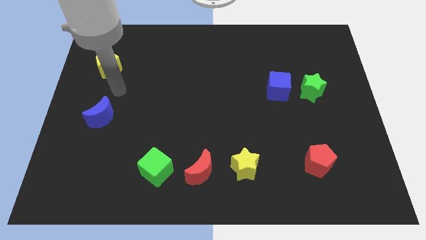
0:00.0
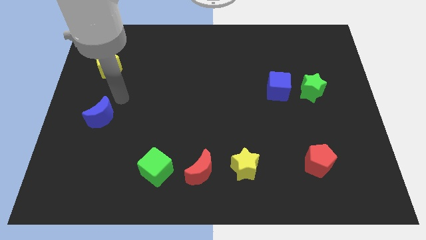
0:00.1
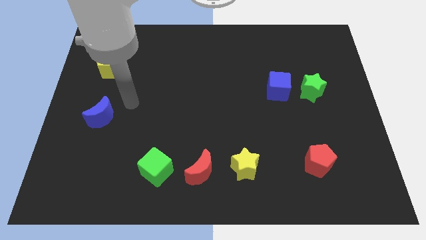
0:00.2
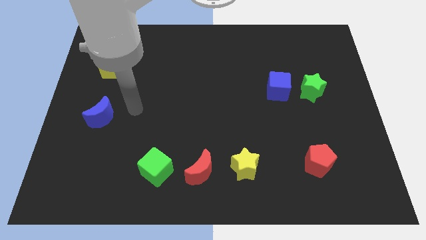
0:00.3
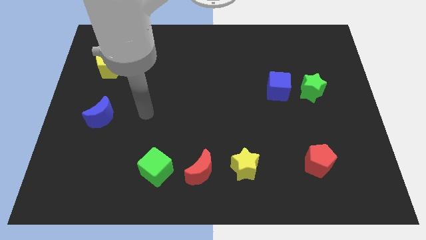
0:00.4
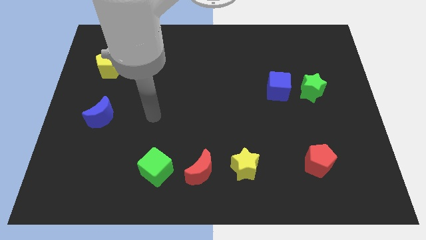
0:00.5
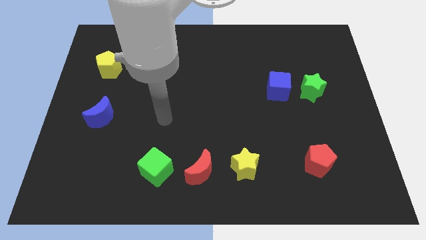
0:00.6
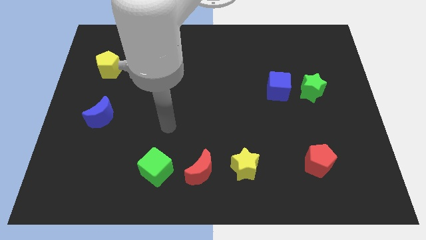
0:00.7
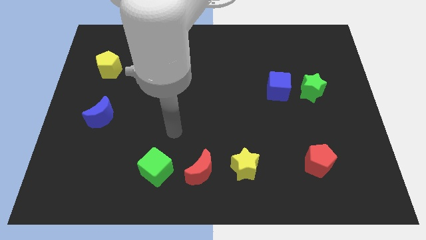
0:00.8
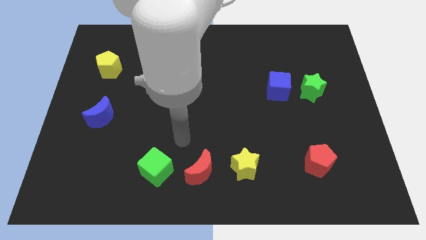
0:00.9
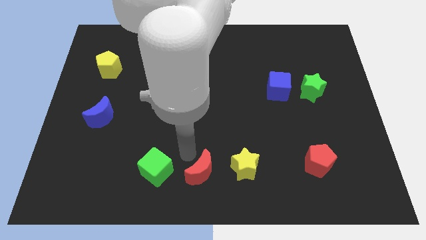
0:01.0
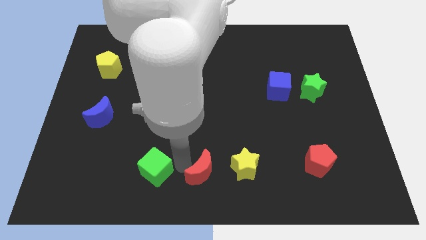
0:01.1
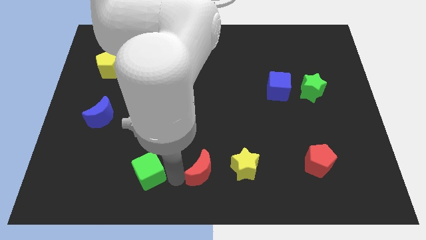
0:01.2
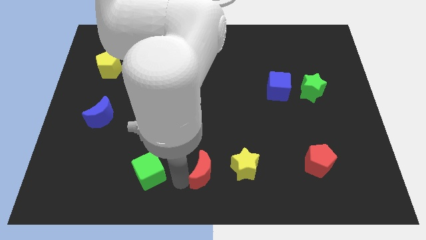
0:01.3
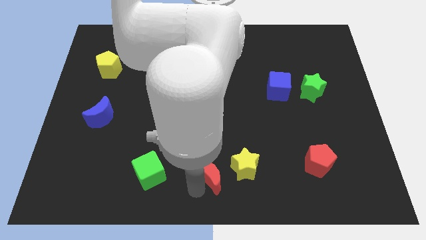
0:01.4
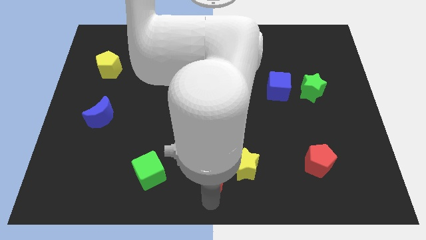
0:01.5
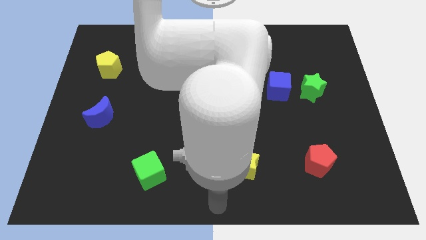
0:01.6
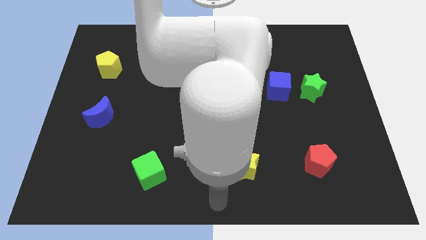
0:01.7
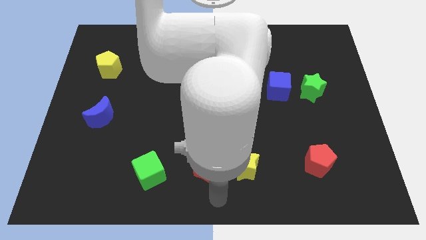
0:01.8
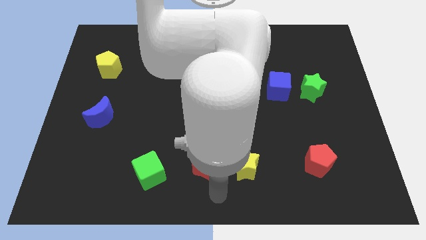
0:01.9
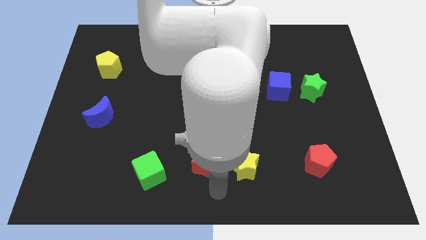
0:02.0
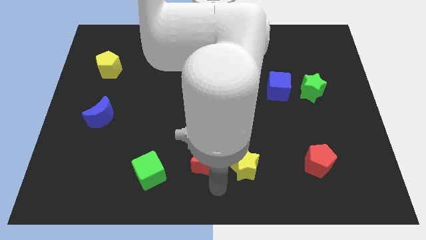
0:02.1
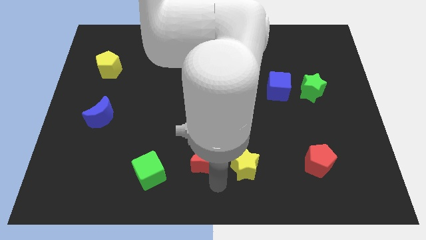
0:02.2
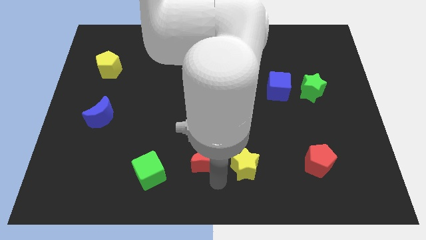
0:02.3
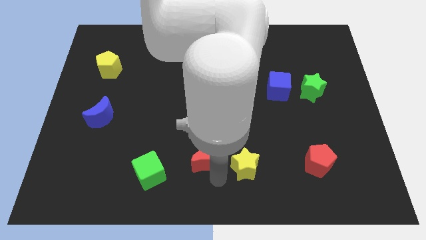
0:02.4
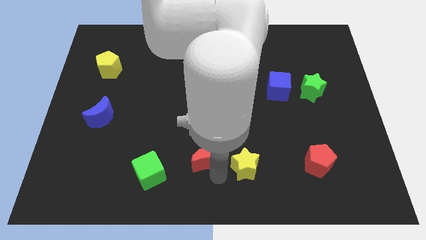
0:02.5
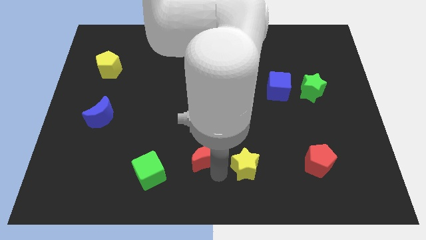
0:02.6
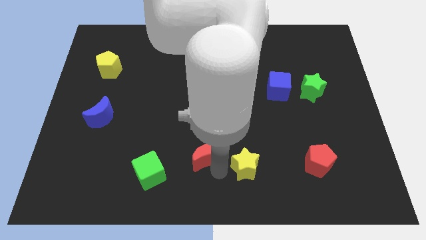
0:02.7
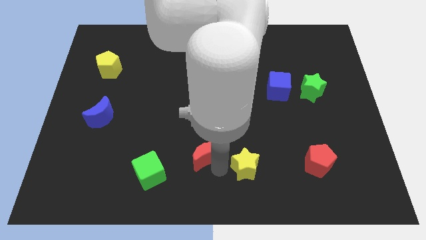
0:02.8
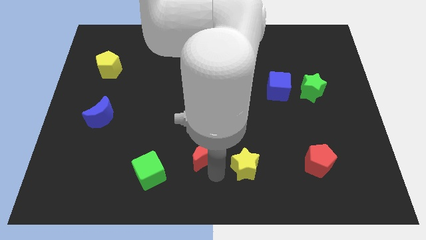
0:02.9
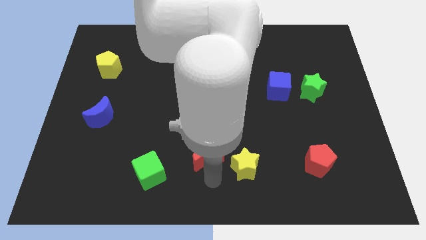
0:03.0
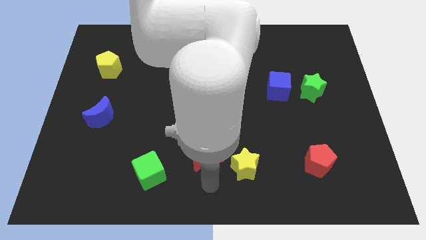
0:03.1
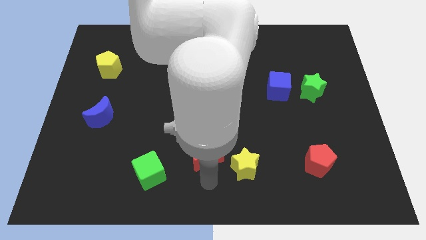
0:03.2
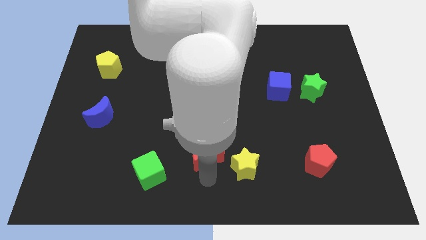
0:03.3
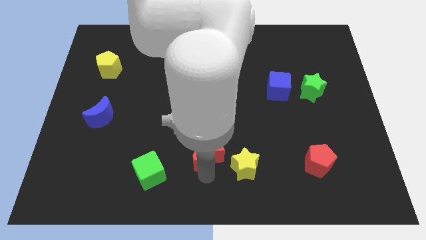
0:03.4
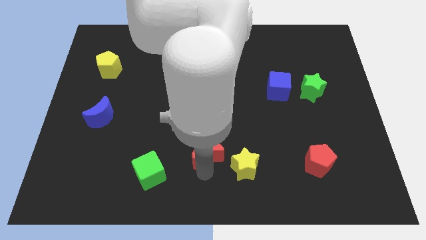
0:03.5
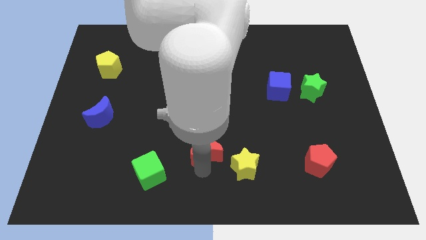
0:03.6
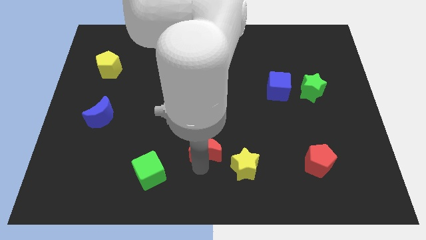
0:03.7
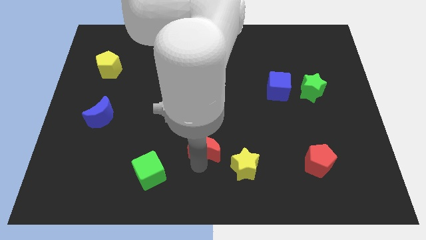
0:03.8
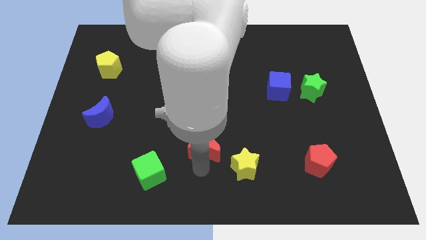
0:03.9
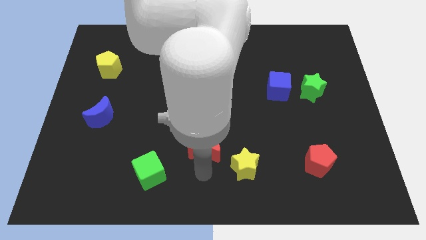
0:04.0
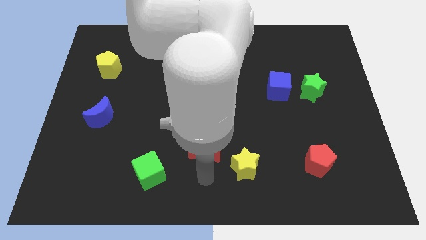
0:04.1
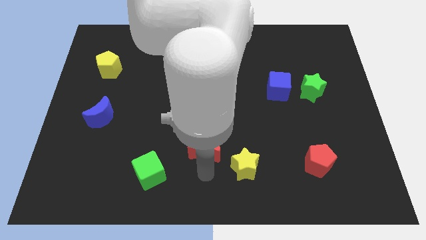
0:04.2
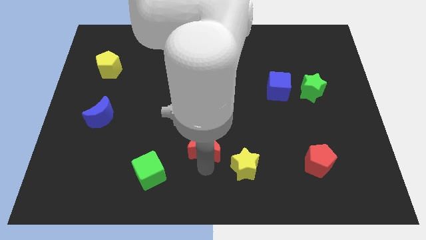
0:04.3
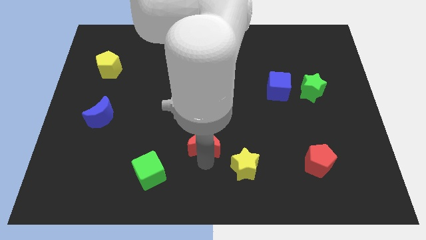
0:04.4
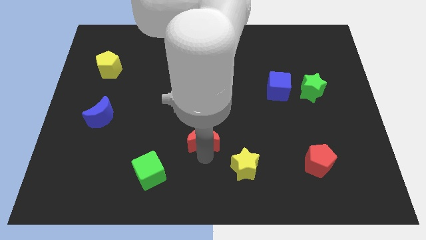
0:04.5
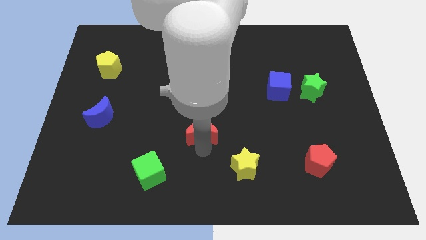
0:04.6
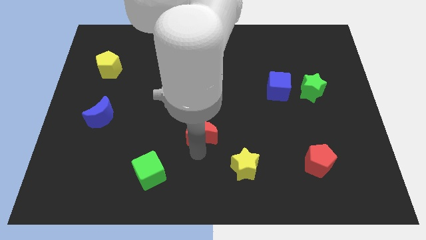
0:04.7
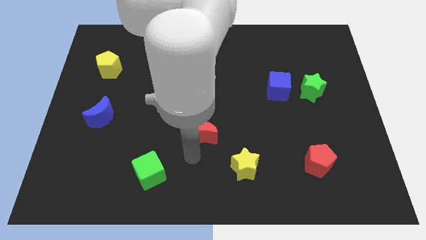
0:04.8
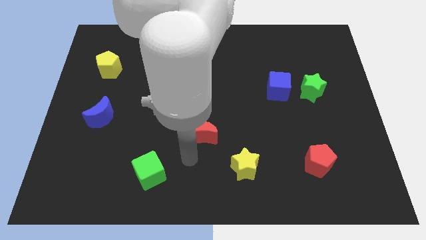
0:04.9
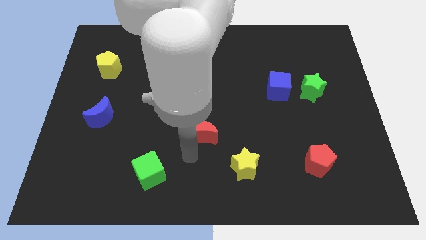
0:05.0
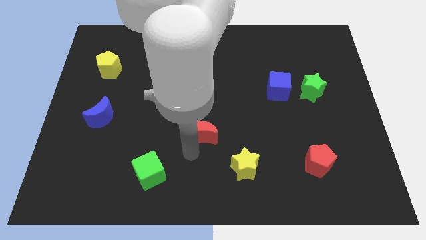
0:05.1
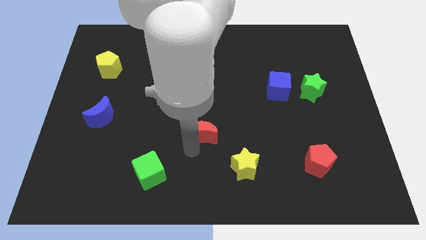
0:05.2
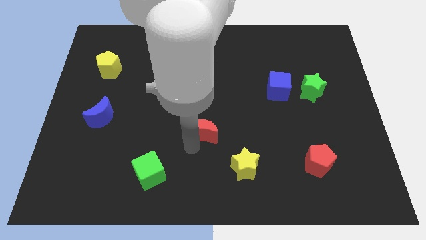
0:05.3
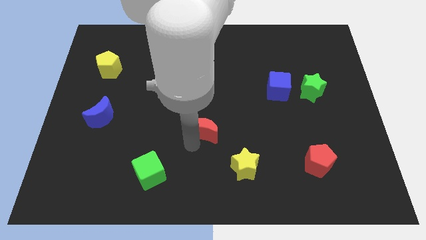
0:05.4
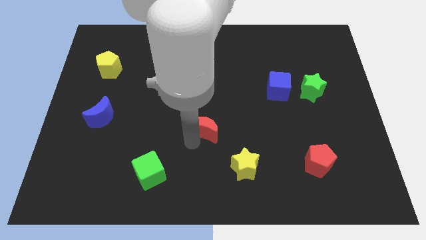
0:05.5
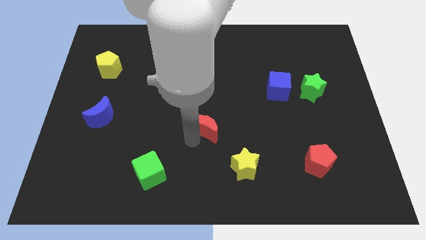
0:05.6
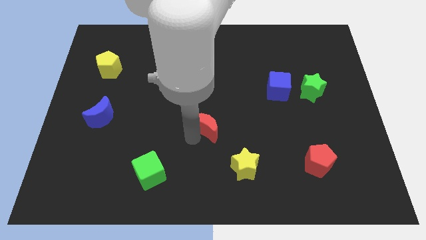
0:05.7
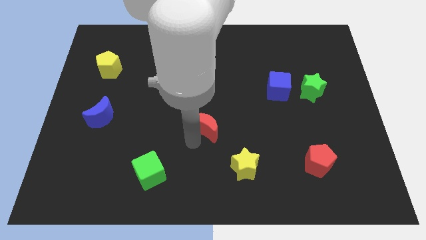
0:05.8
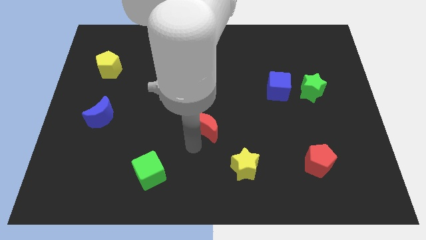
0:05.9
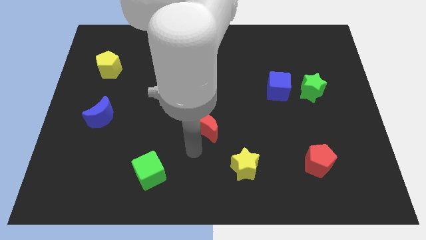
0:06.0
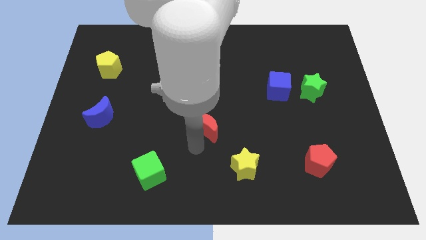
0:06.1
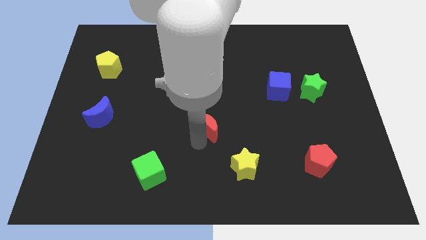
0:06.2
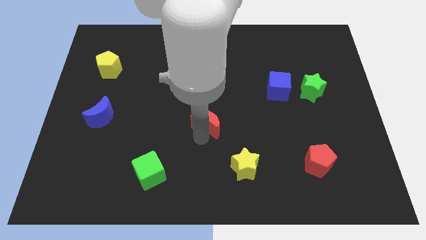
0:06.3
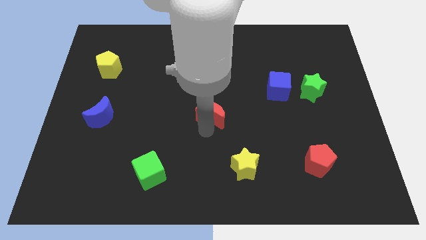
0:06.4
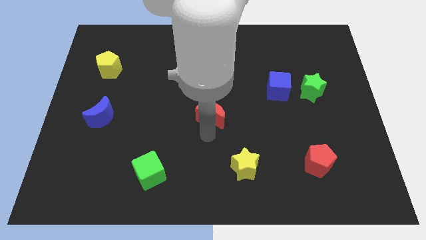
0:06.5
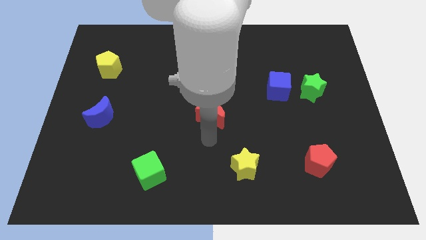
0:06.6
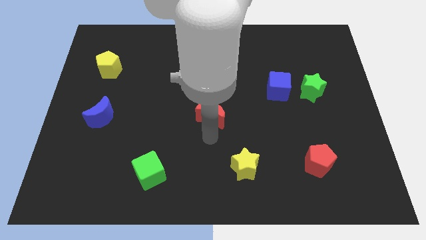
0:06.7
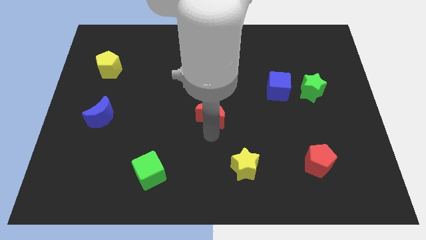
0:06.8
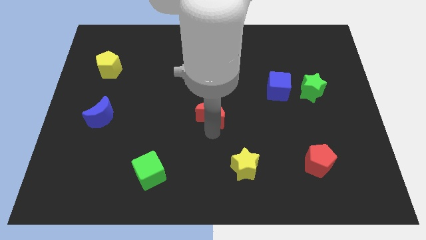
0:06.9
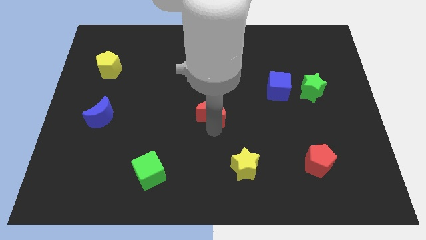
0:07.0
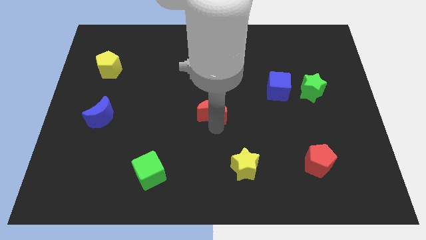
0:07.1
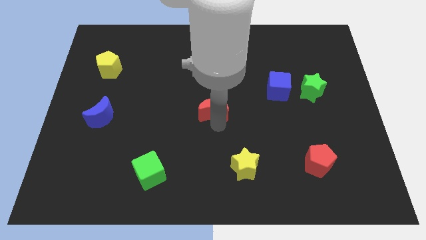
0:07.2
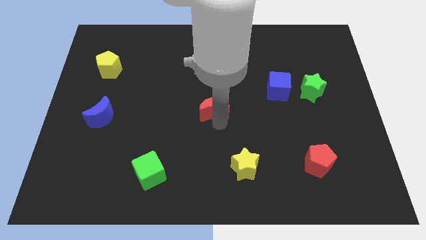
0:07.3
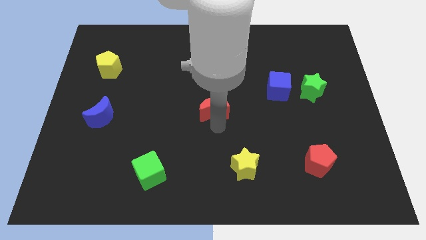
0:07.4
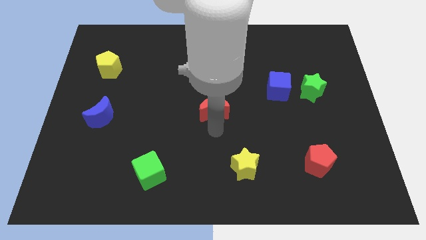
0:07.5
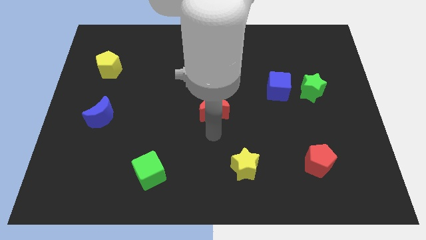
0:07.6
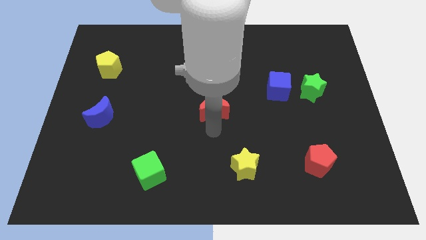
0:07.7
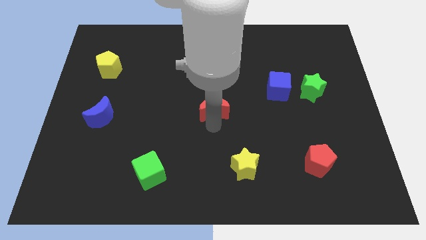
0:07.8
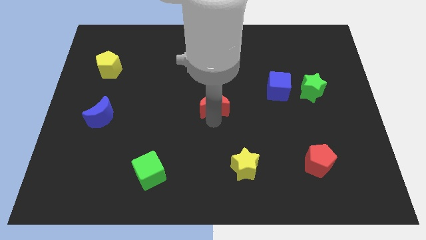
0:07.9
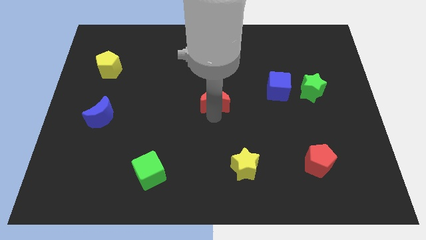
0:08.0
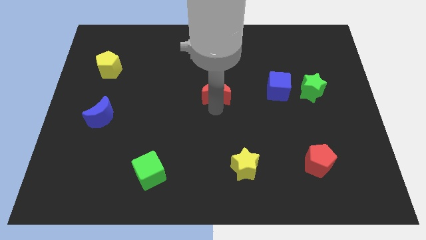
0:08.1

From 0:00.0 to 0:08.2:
push the red moon up
